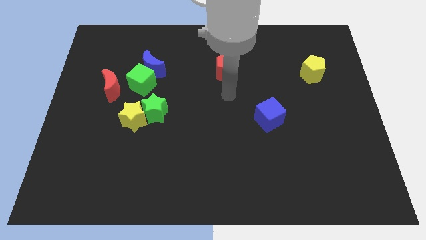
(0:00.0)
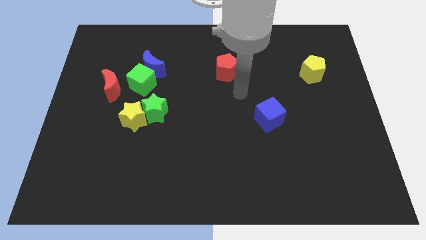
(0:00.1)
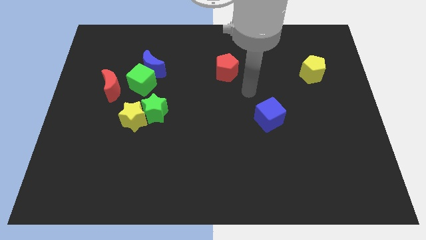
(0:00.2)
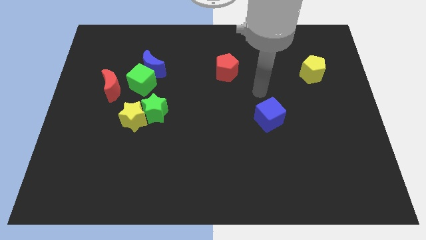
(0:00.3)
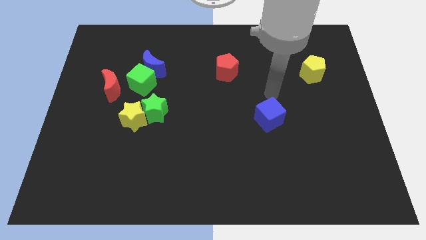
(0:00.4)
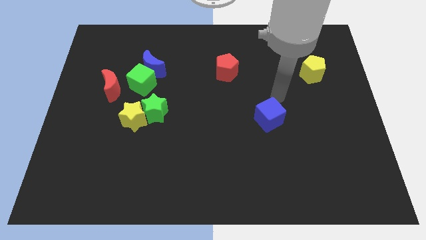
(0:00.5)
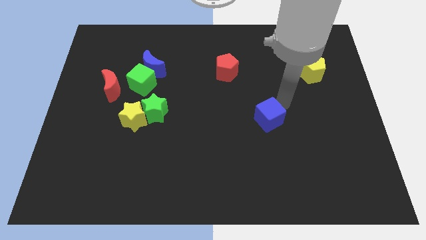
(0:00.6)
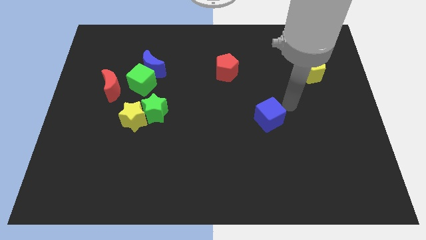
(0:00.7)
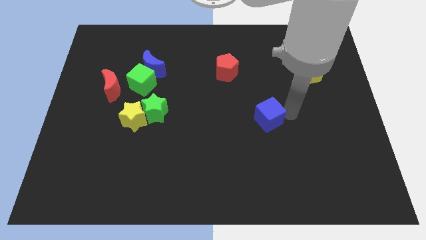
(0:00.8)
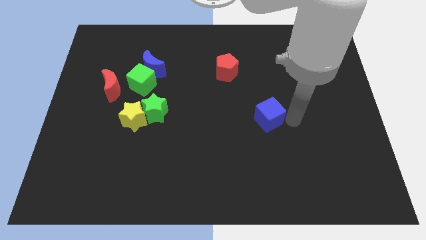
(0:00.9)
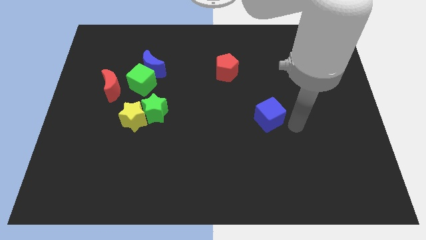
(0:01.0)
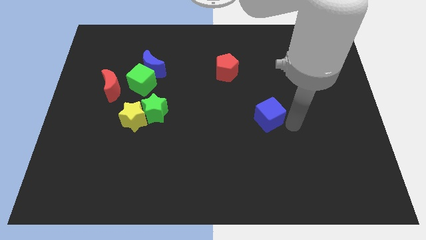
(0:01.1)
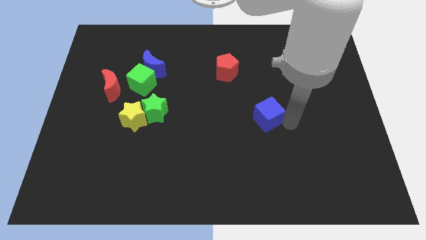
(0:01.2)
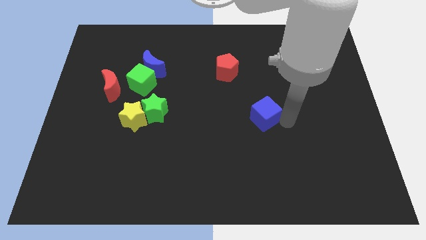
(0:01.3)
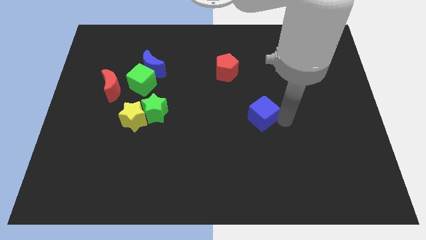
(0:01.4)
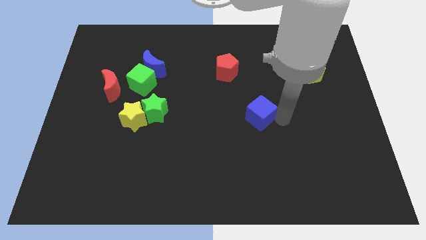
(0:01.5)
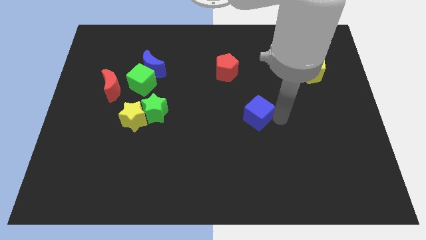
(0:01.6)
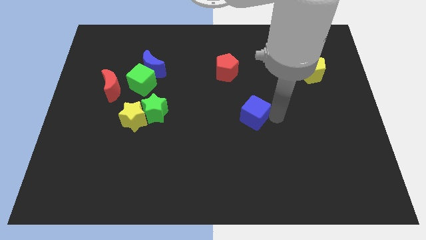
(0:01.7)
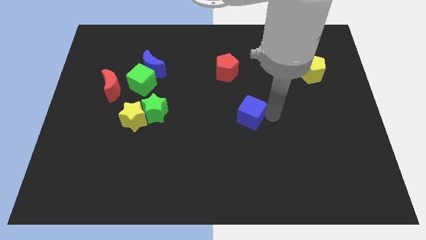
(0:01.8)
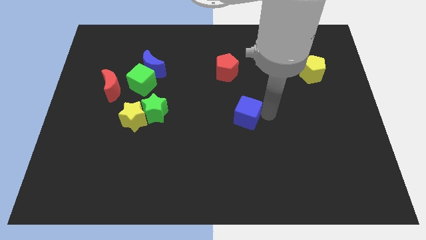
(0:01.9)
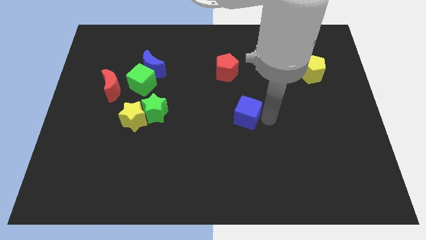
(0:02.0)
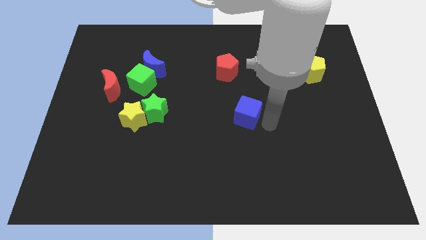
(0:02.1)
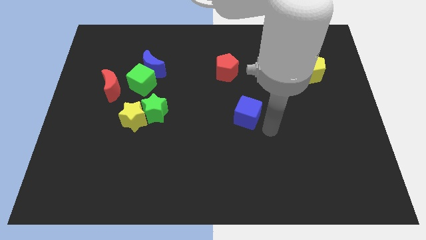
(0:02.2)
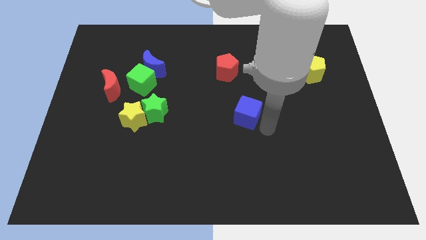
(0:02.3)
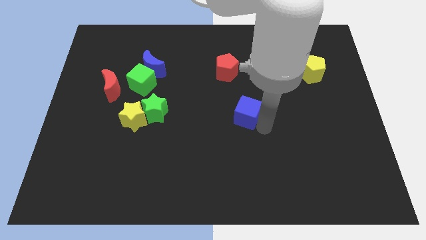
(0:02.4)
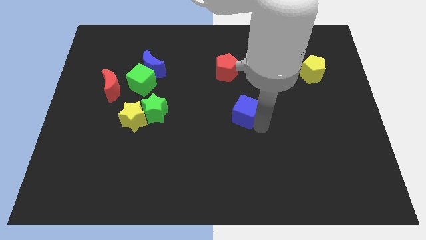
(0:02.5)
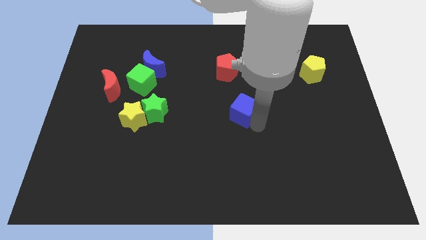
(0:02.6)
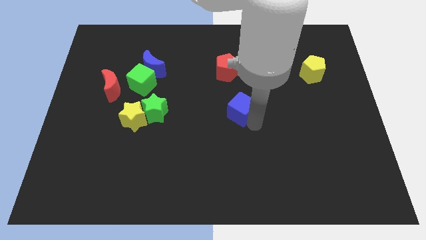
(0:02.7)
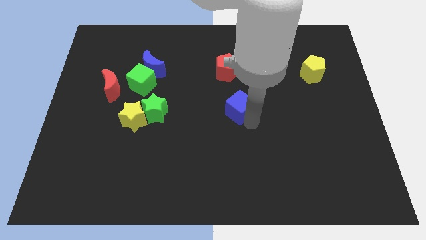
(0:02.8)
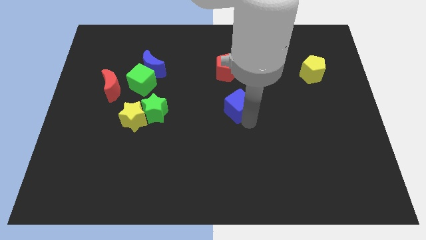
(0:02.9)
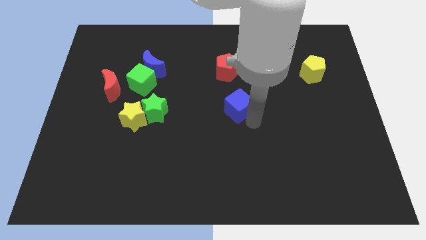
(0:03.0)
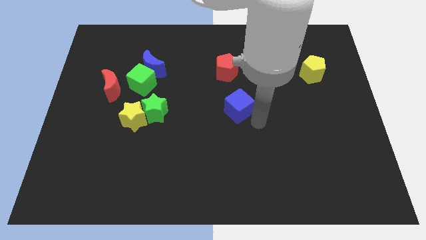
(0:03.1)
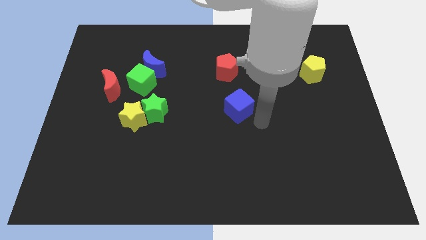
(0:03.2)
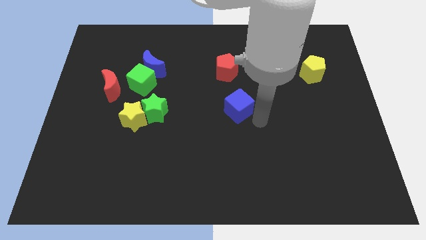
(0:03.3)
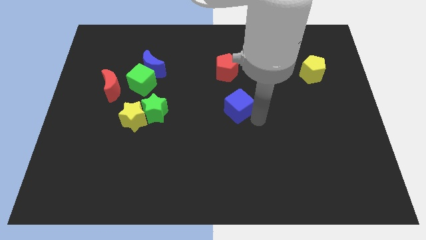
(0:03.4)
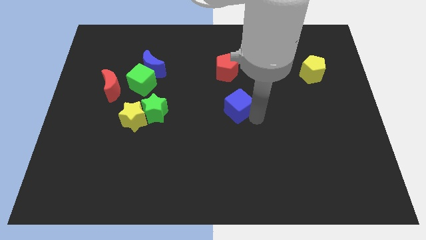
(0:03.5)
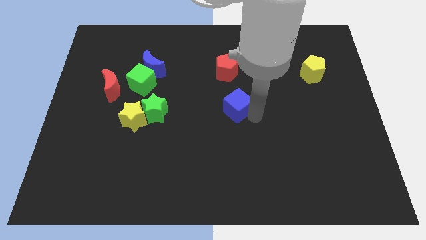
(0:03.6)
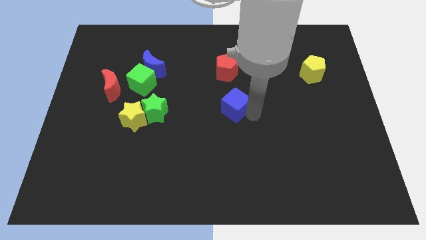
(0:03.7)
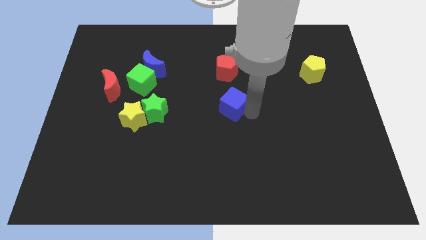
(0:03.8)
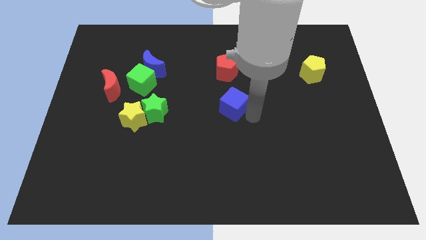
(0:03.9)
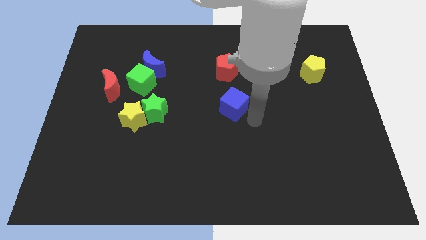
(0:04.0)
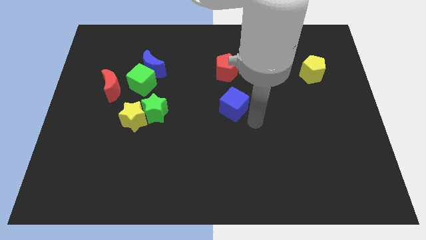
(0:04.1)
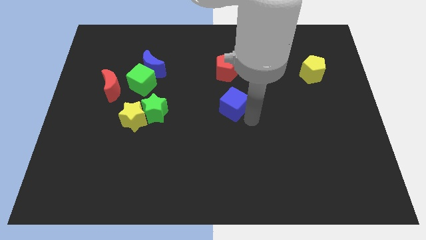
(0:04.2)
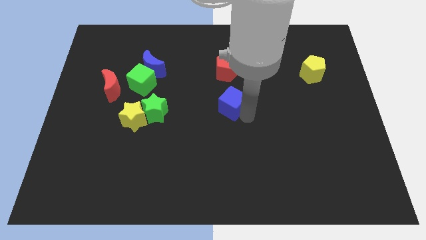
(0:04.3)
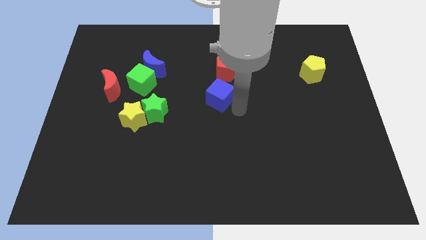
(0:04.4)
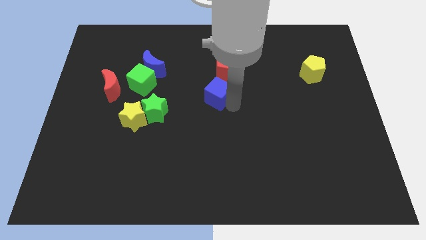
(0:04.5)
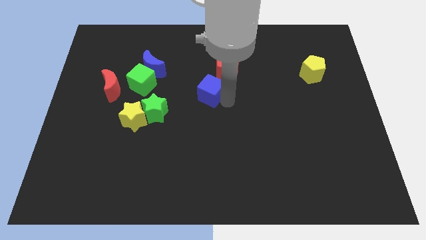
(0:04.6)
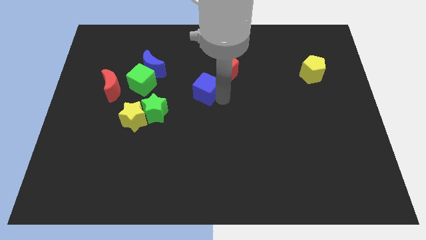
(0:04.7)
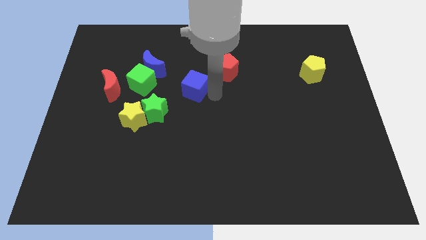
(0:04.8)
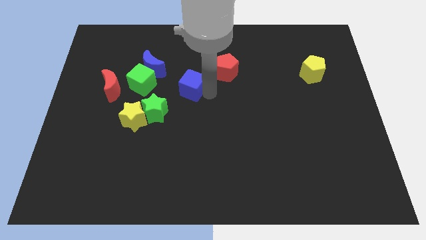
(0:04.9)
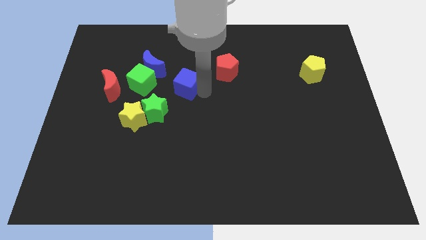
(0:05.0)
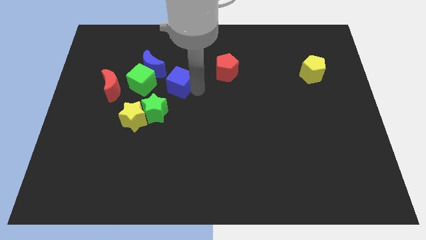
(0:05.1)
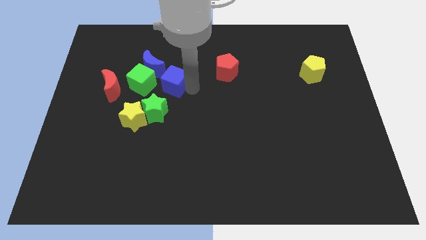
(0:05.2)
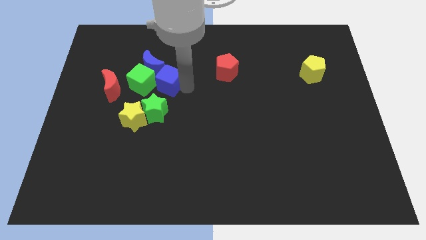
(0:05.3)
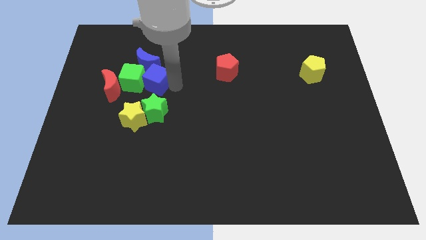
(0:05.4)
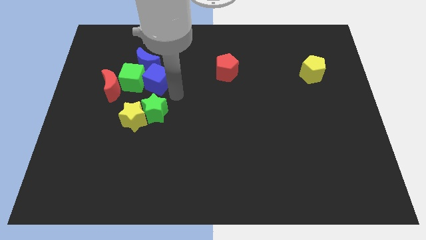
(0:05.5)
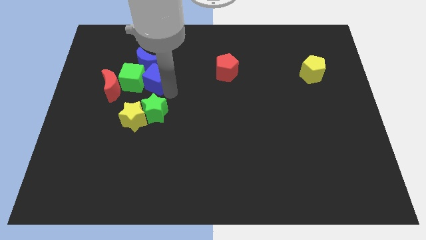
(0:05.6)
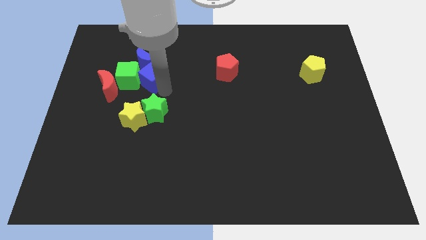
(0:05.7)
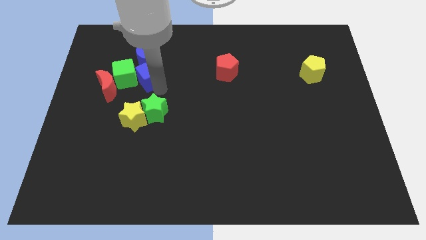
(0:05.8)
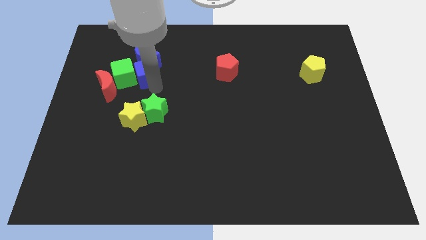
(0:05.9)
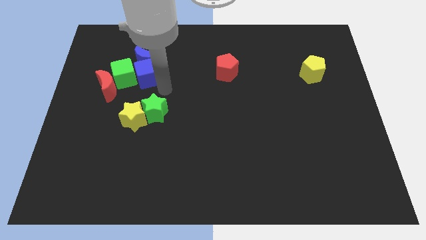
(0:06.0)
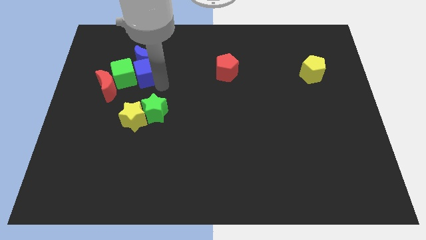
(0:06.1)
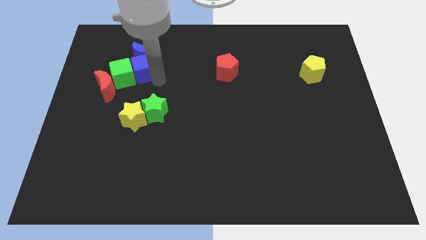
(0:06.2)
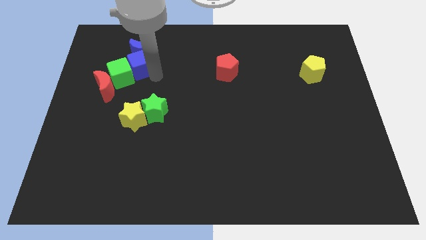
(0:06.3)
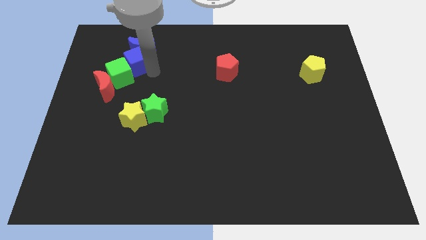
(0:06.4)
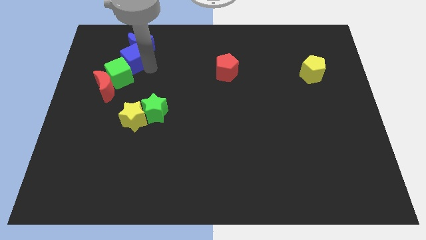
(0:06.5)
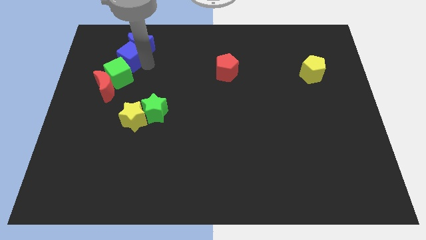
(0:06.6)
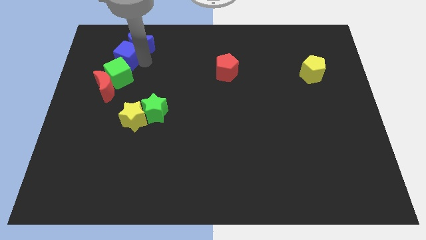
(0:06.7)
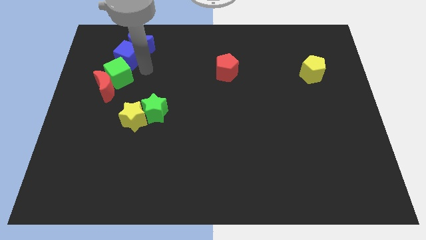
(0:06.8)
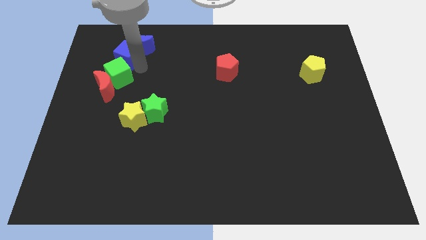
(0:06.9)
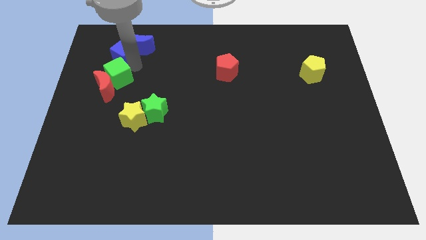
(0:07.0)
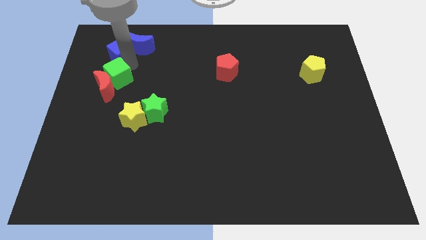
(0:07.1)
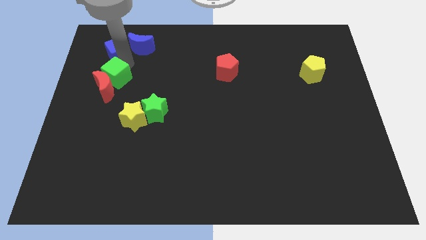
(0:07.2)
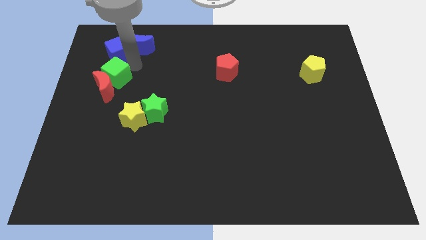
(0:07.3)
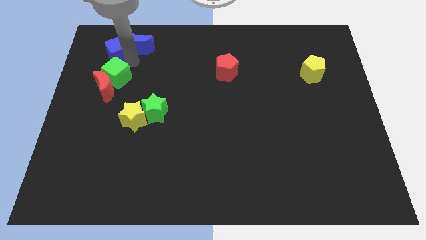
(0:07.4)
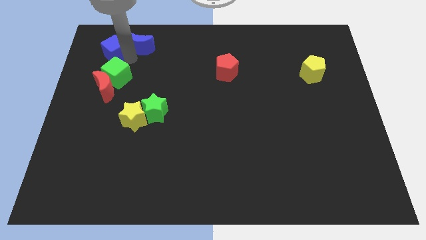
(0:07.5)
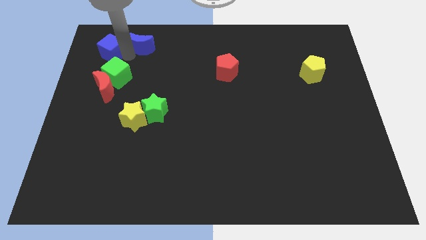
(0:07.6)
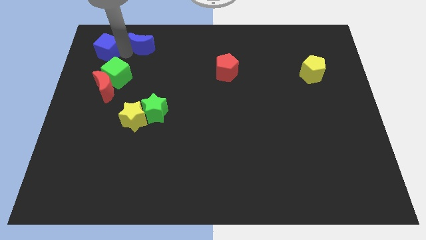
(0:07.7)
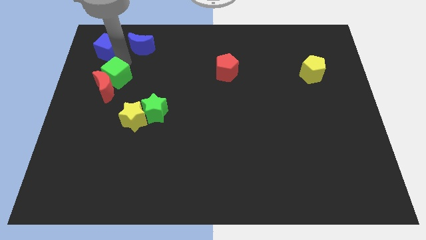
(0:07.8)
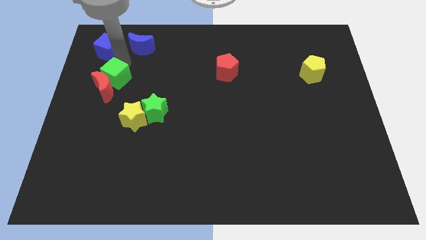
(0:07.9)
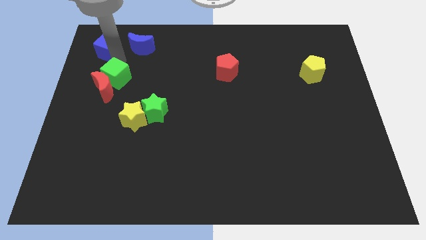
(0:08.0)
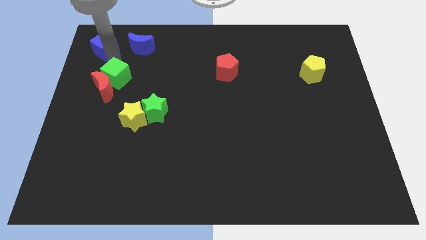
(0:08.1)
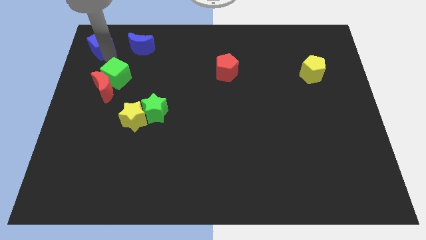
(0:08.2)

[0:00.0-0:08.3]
put the blue cube to the top left corner
